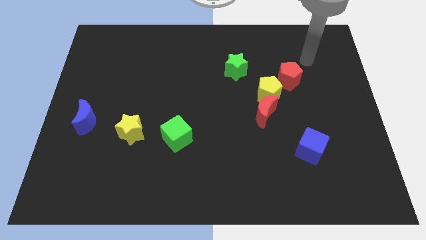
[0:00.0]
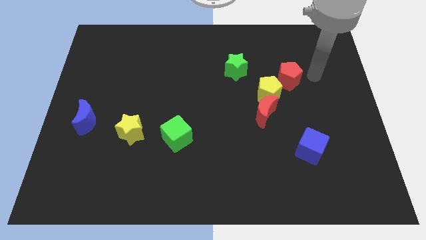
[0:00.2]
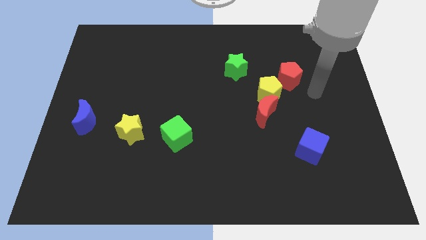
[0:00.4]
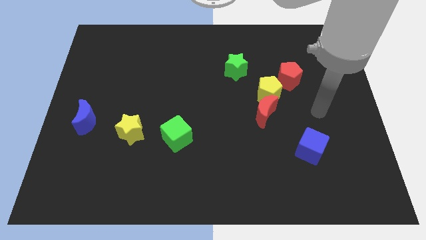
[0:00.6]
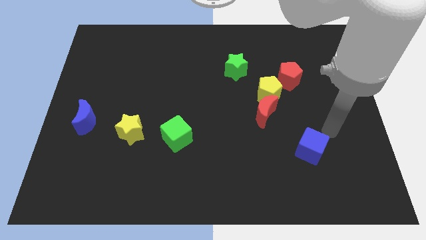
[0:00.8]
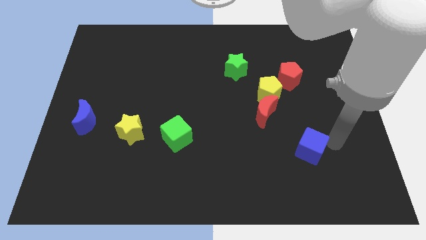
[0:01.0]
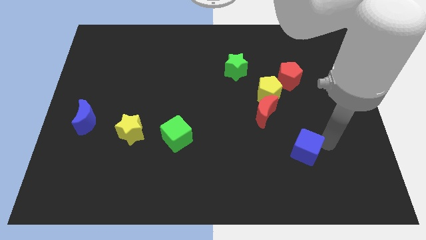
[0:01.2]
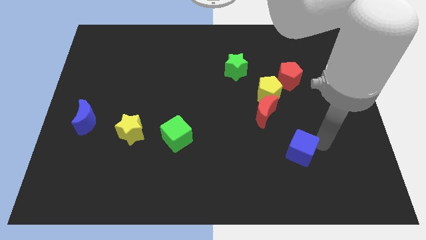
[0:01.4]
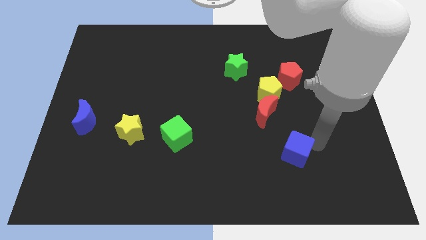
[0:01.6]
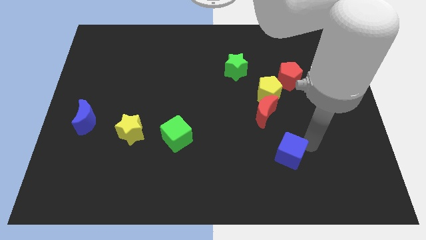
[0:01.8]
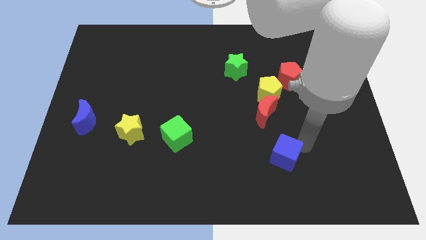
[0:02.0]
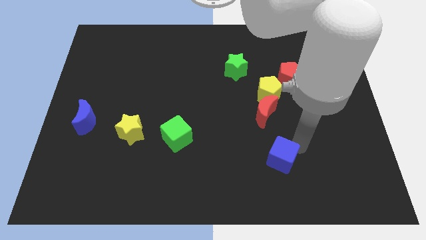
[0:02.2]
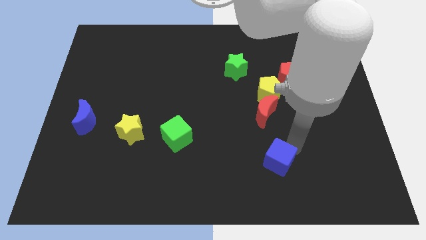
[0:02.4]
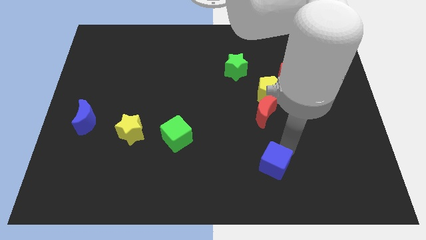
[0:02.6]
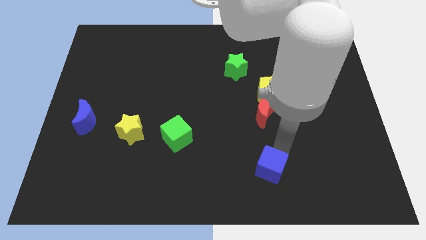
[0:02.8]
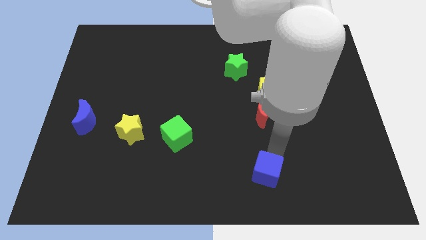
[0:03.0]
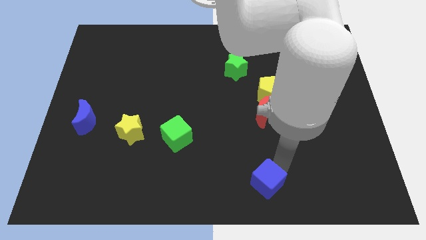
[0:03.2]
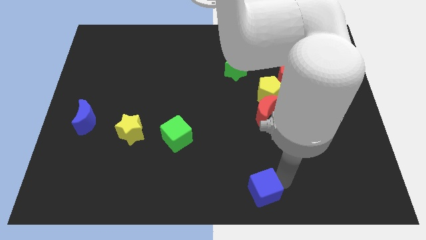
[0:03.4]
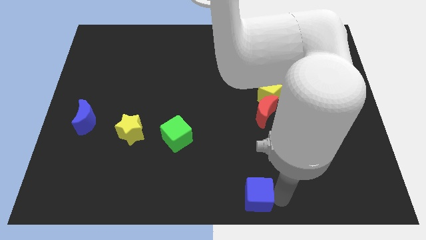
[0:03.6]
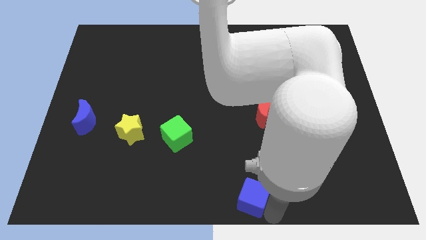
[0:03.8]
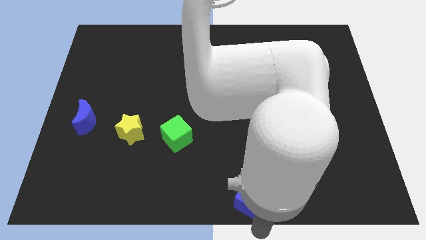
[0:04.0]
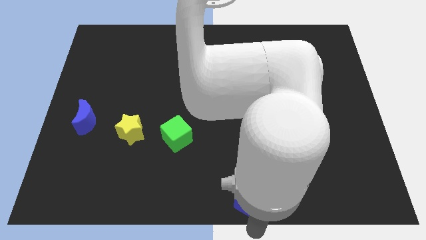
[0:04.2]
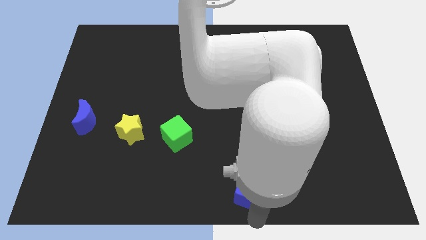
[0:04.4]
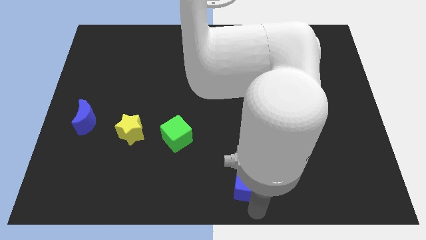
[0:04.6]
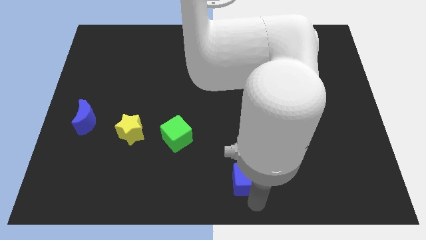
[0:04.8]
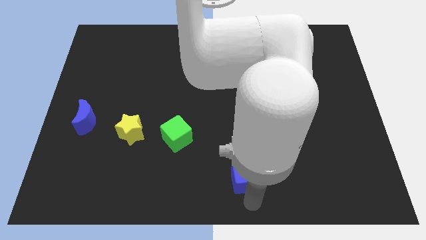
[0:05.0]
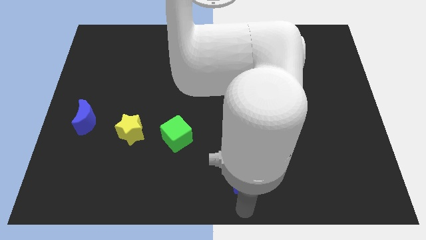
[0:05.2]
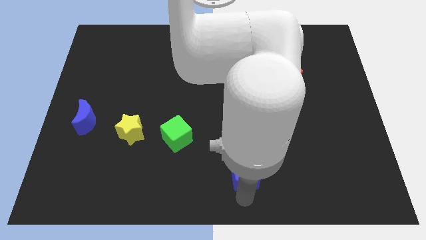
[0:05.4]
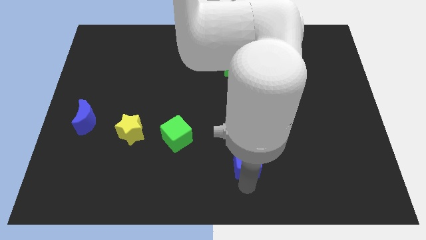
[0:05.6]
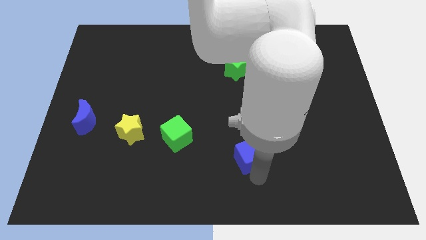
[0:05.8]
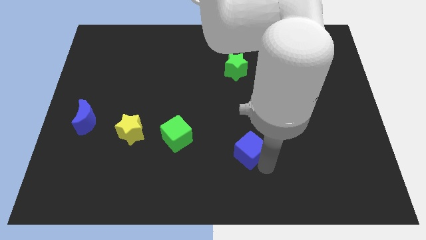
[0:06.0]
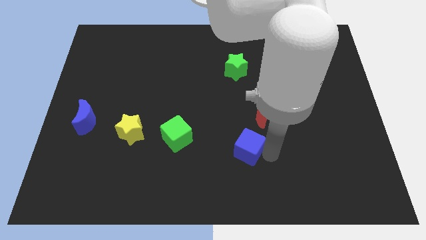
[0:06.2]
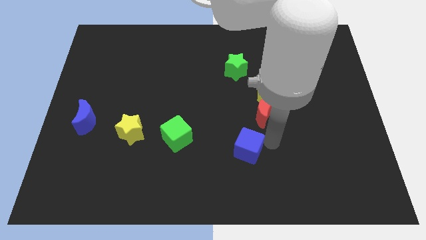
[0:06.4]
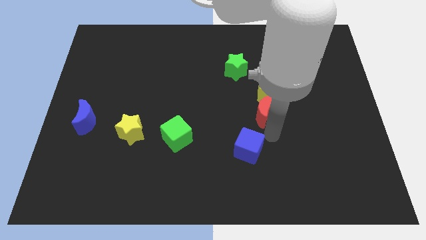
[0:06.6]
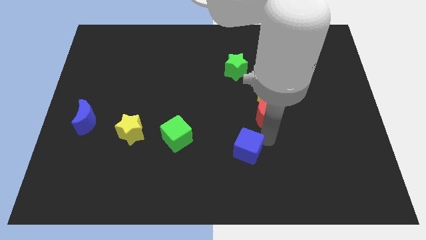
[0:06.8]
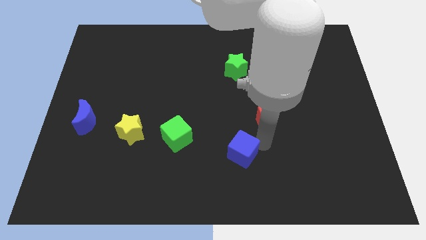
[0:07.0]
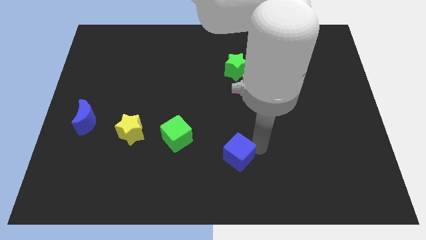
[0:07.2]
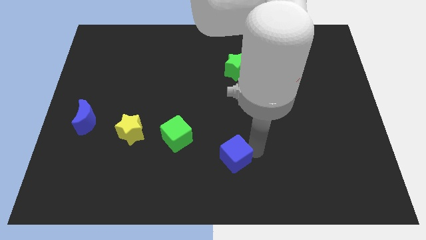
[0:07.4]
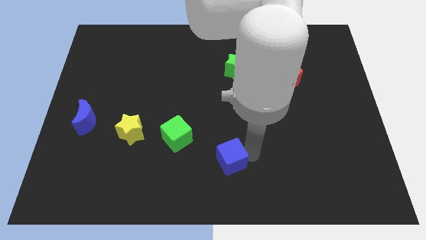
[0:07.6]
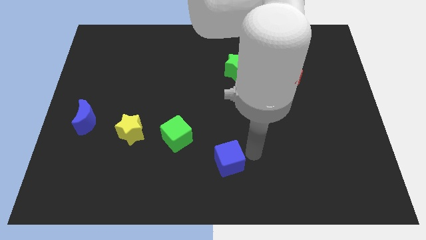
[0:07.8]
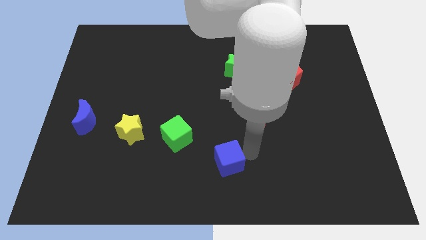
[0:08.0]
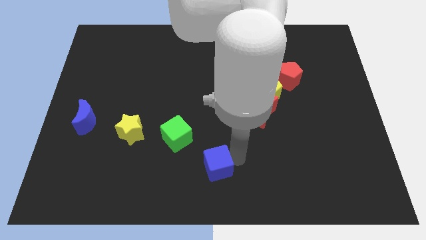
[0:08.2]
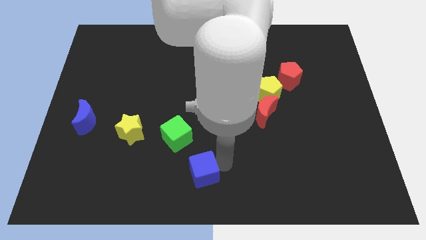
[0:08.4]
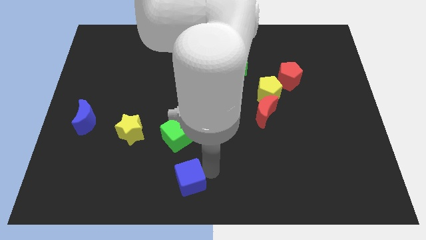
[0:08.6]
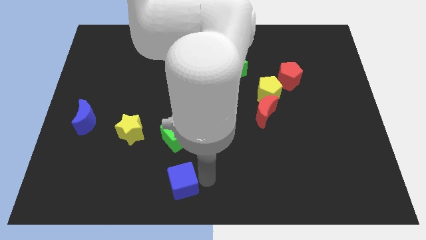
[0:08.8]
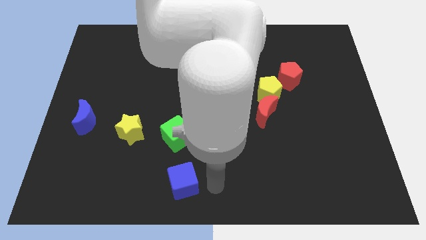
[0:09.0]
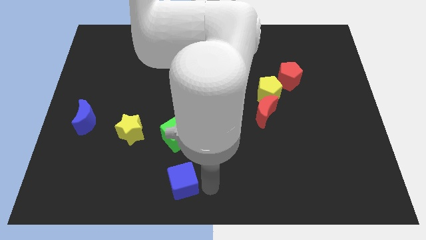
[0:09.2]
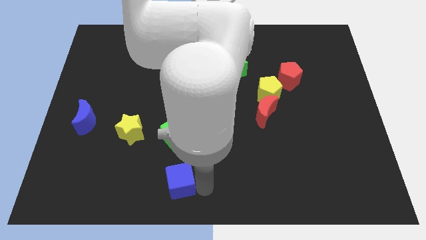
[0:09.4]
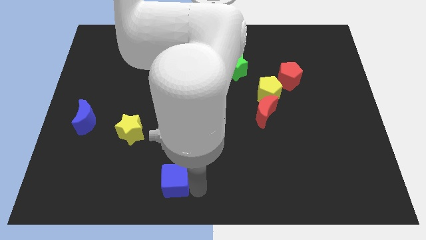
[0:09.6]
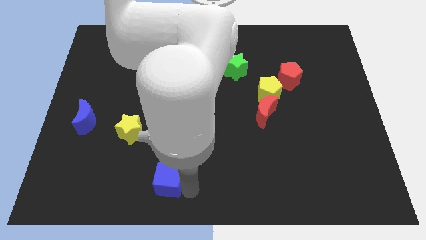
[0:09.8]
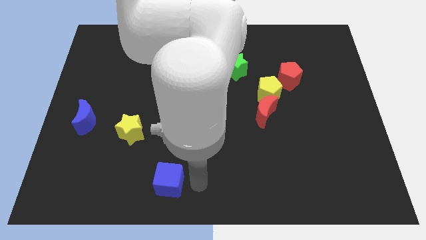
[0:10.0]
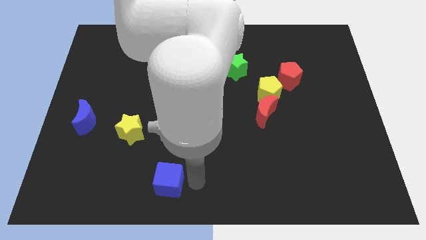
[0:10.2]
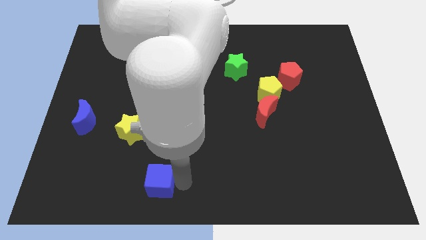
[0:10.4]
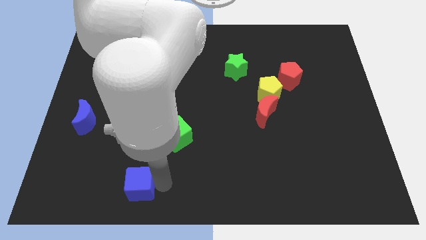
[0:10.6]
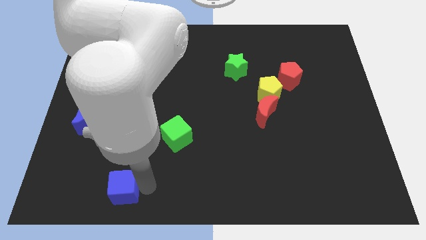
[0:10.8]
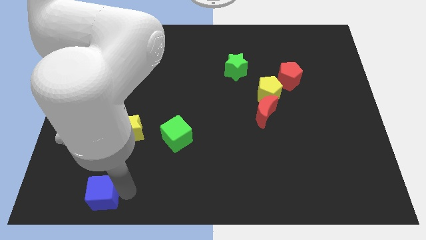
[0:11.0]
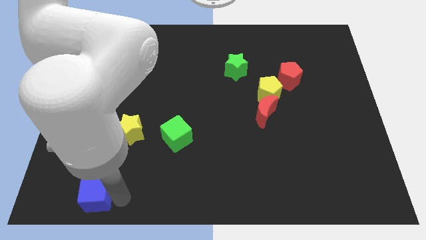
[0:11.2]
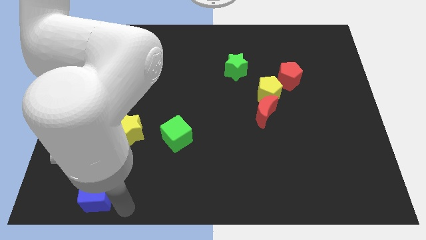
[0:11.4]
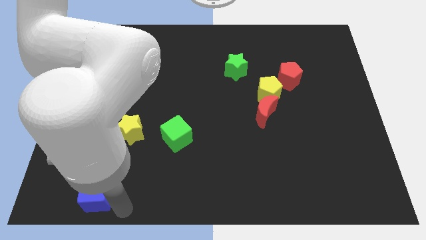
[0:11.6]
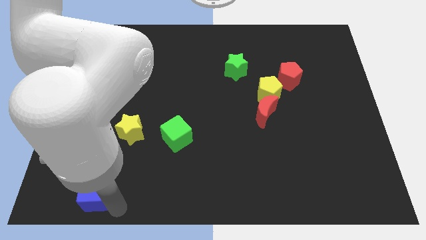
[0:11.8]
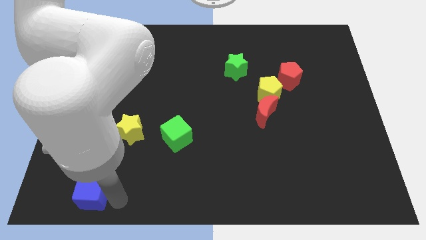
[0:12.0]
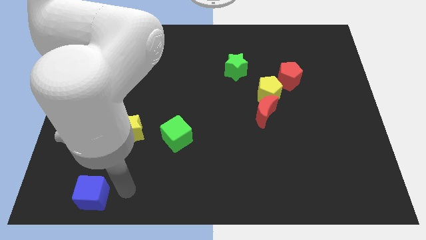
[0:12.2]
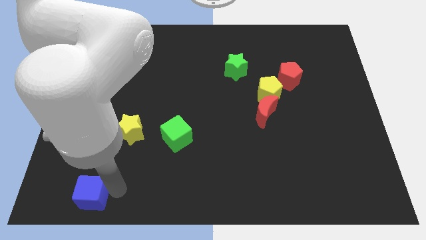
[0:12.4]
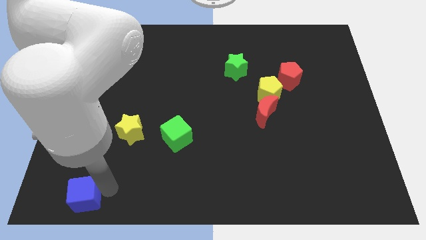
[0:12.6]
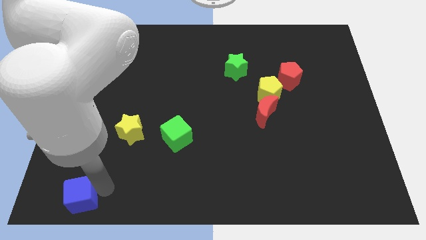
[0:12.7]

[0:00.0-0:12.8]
move the blue cube to the lower left corner

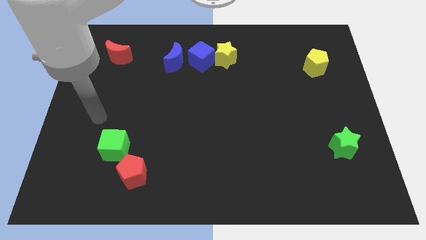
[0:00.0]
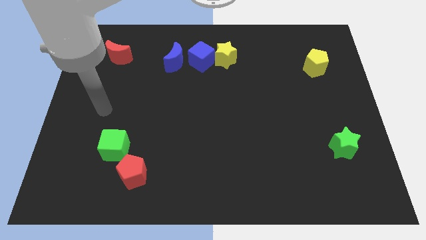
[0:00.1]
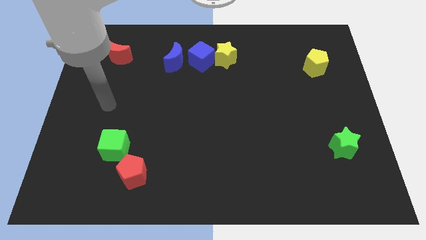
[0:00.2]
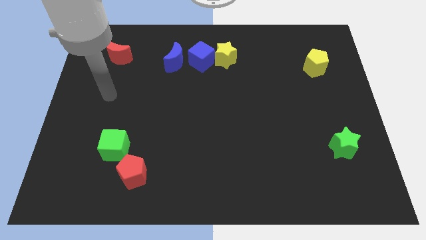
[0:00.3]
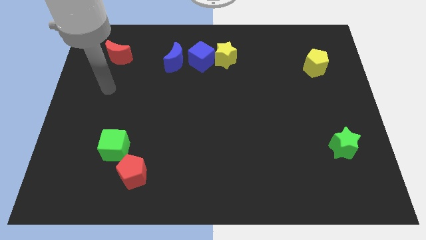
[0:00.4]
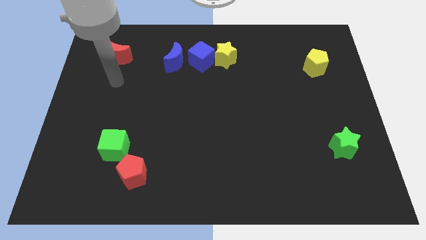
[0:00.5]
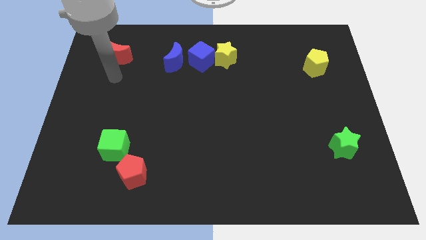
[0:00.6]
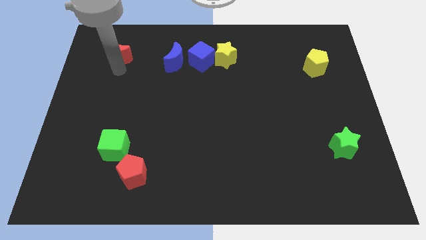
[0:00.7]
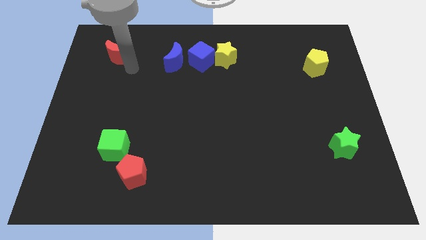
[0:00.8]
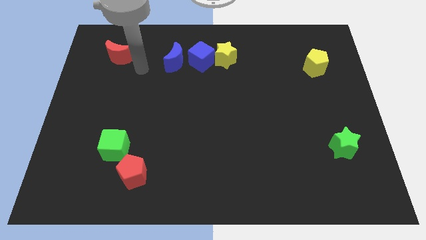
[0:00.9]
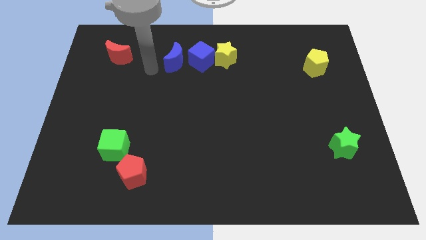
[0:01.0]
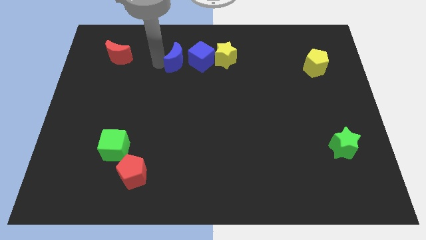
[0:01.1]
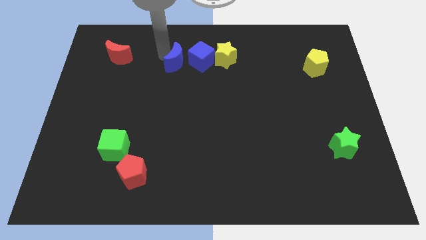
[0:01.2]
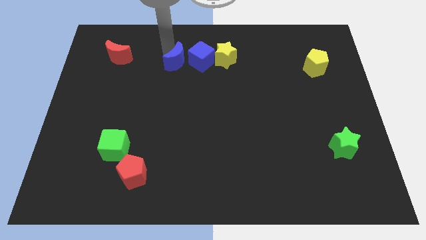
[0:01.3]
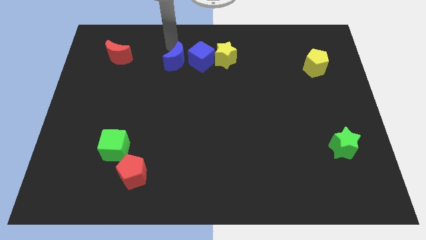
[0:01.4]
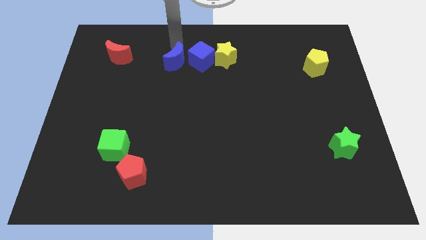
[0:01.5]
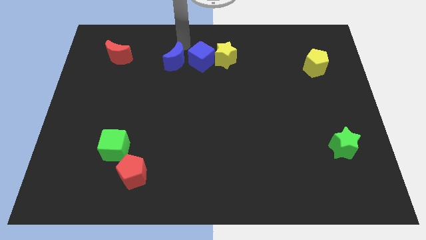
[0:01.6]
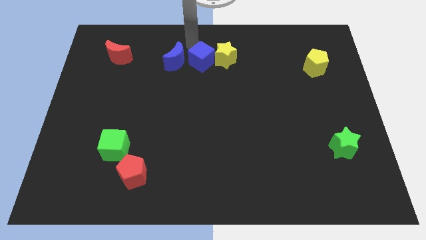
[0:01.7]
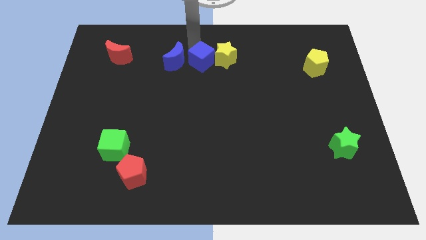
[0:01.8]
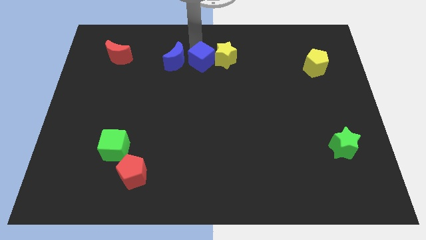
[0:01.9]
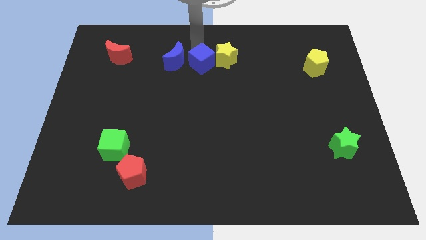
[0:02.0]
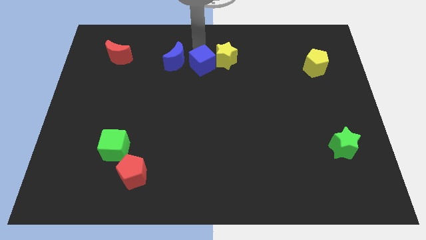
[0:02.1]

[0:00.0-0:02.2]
push the blue cube to the middle
